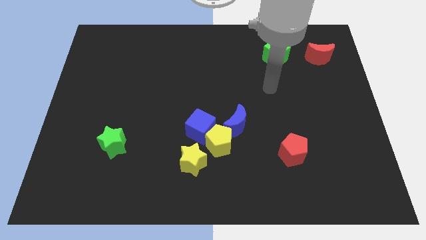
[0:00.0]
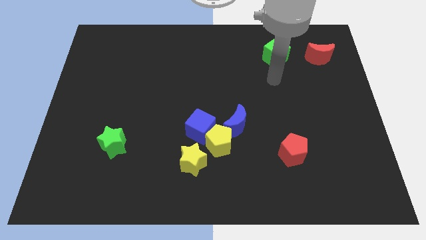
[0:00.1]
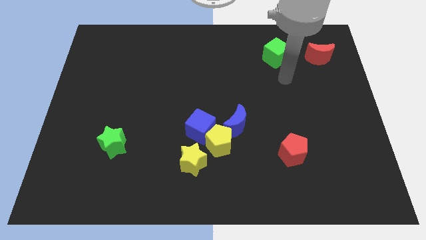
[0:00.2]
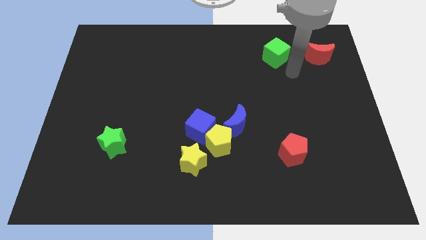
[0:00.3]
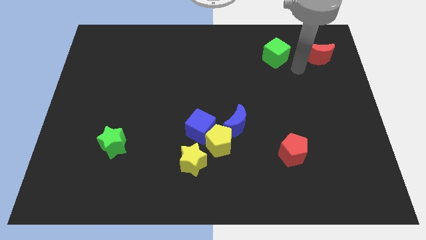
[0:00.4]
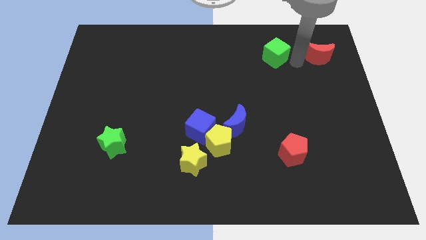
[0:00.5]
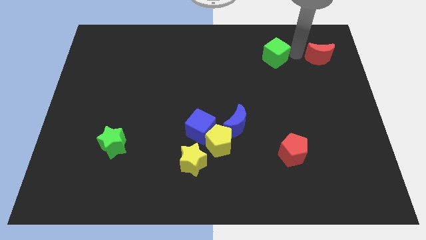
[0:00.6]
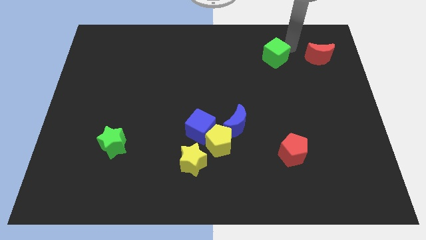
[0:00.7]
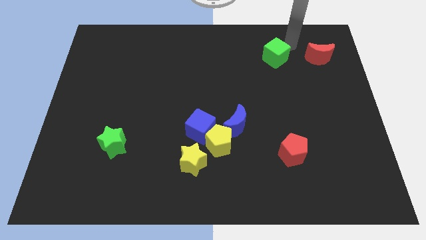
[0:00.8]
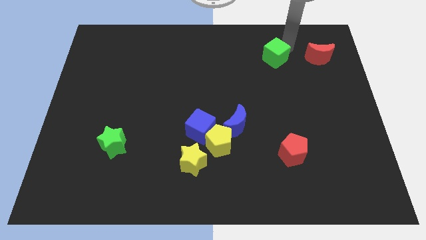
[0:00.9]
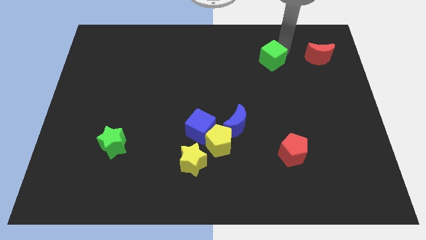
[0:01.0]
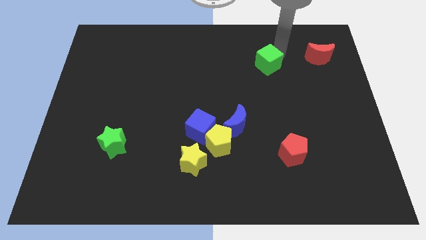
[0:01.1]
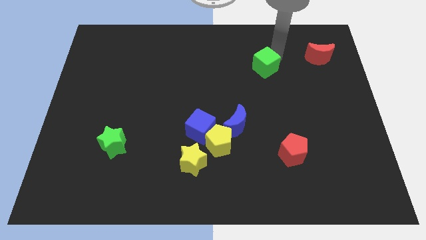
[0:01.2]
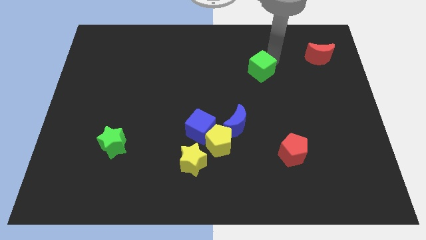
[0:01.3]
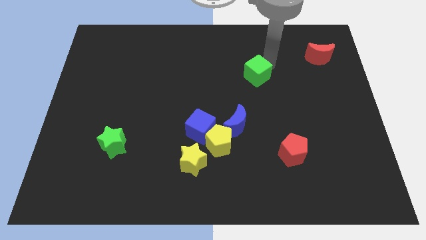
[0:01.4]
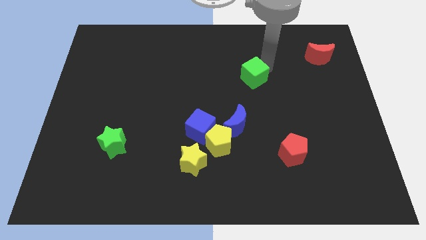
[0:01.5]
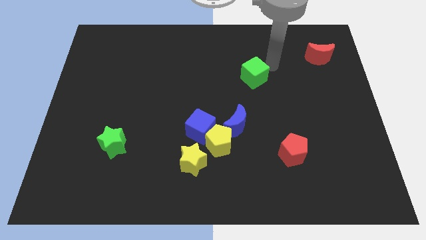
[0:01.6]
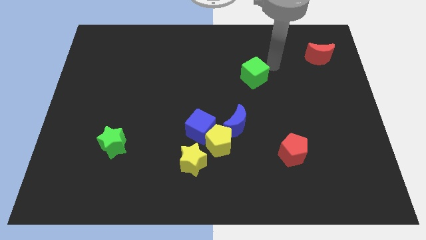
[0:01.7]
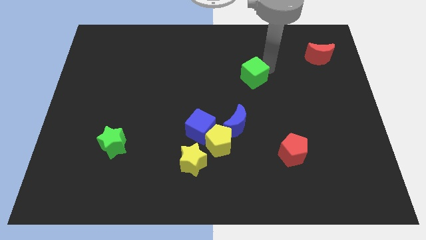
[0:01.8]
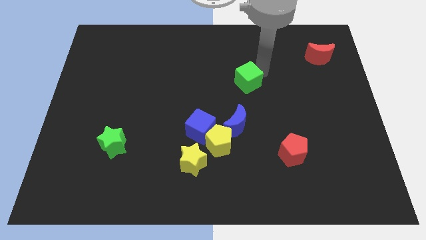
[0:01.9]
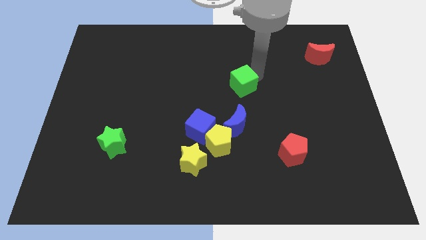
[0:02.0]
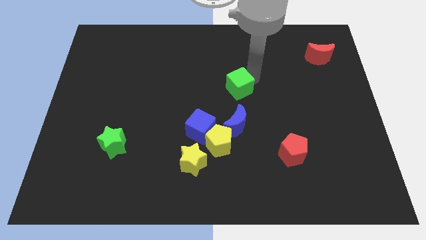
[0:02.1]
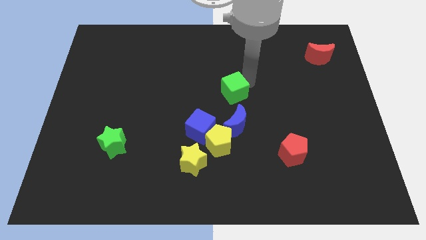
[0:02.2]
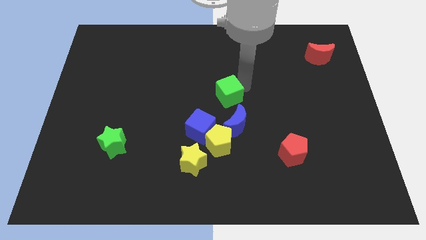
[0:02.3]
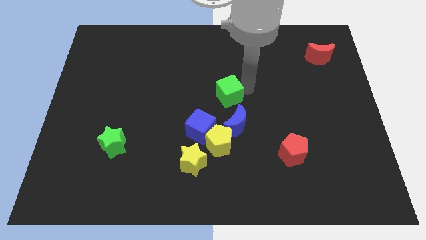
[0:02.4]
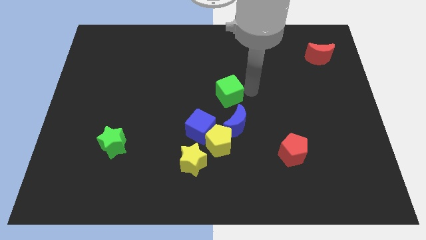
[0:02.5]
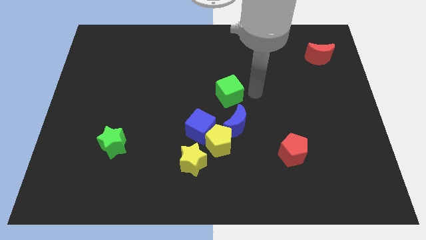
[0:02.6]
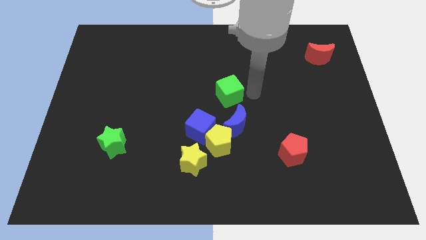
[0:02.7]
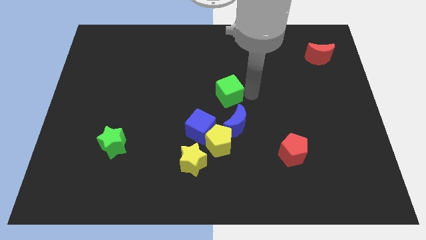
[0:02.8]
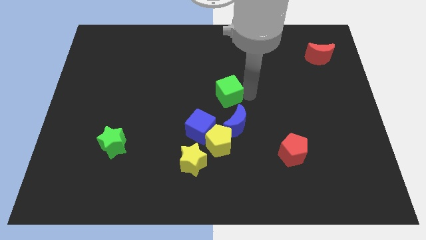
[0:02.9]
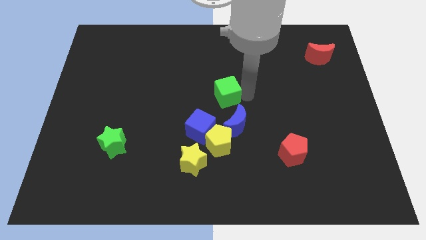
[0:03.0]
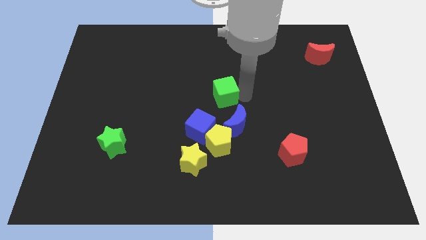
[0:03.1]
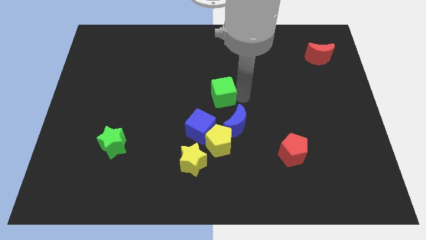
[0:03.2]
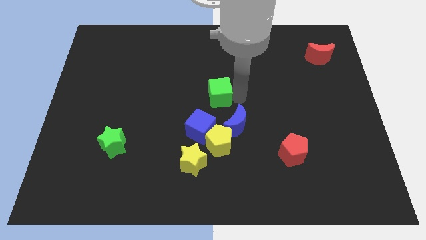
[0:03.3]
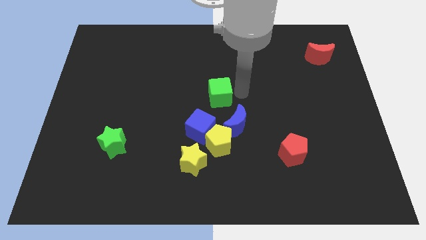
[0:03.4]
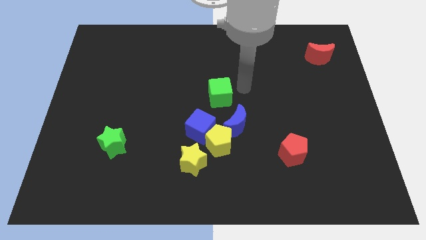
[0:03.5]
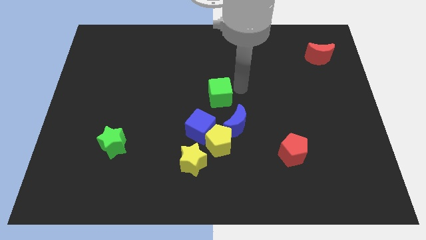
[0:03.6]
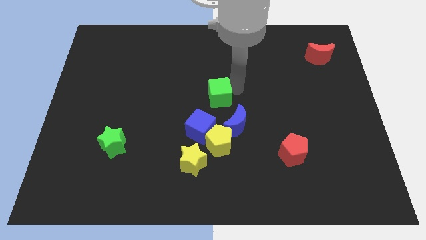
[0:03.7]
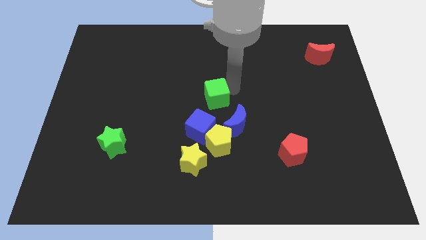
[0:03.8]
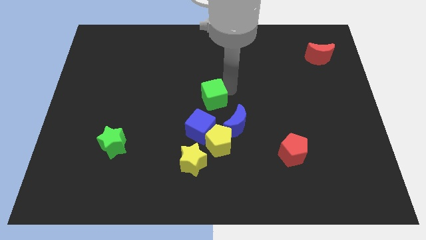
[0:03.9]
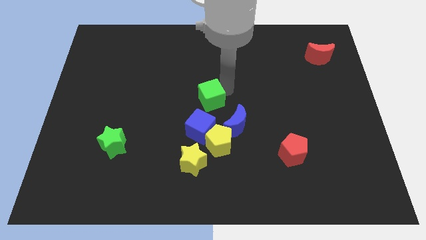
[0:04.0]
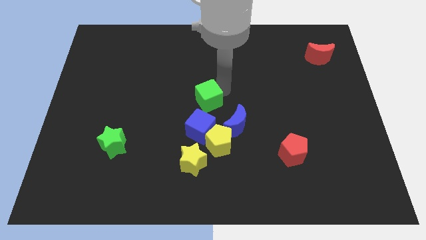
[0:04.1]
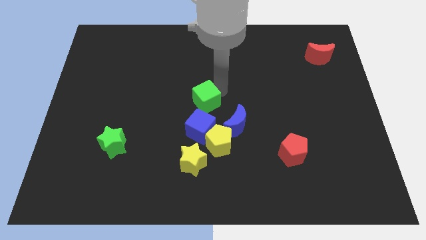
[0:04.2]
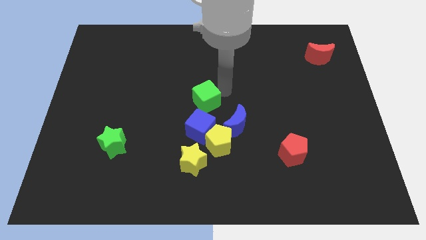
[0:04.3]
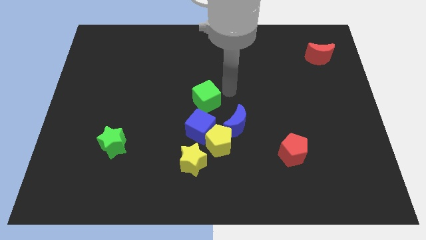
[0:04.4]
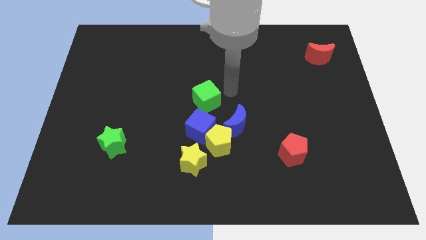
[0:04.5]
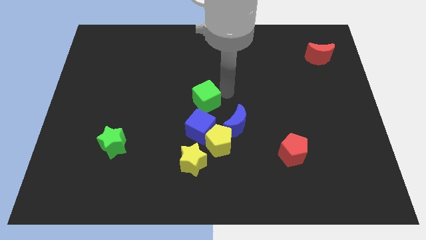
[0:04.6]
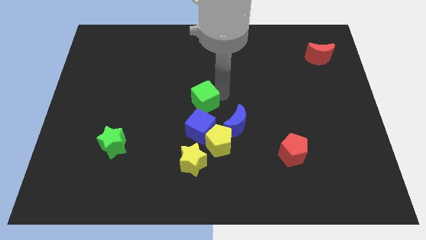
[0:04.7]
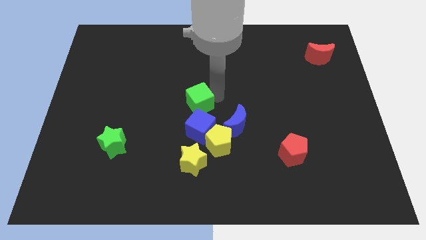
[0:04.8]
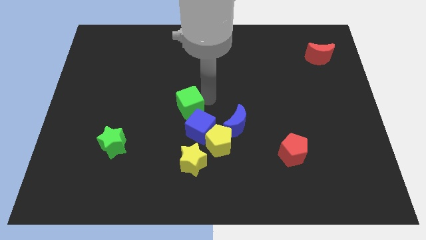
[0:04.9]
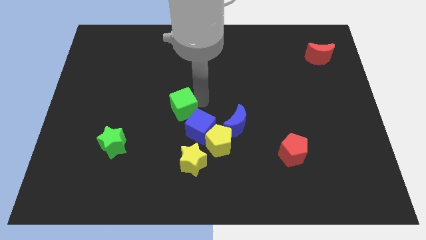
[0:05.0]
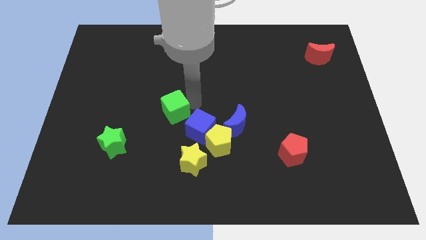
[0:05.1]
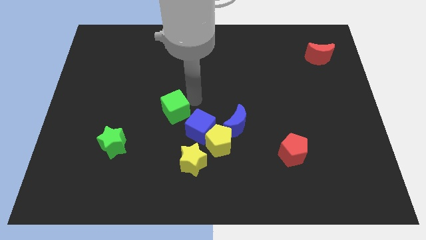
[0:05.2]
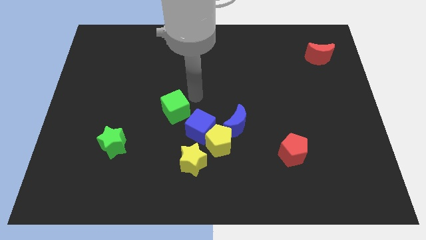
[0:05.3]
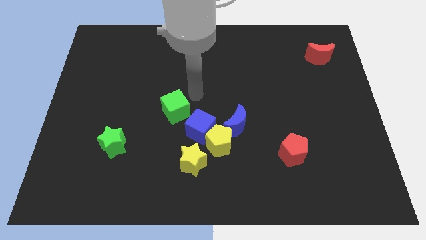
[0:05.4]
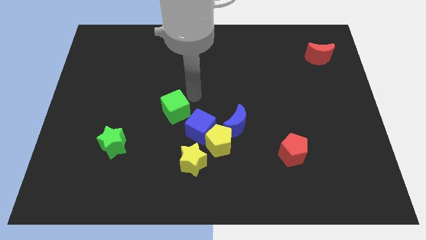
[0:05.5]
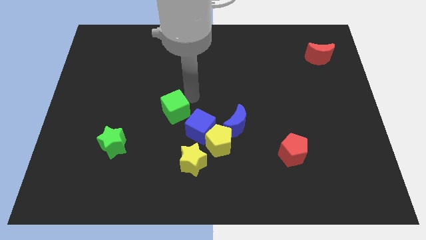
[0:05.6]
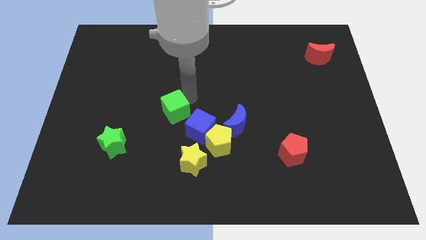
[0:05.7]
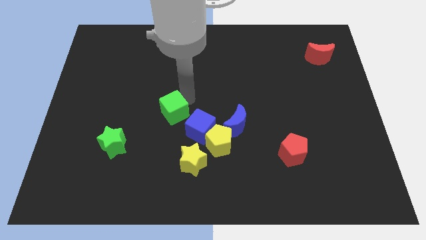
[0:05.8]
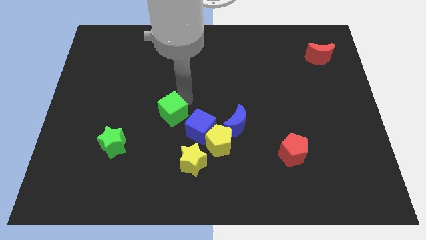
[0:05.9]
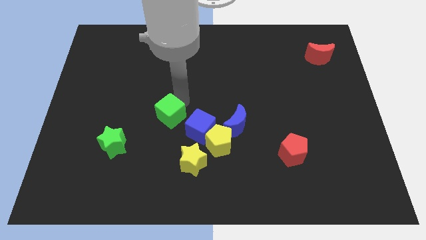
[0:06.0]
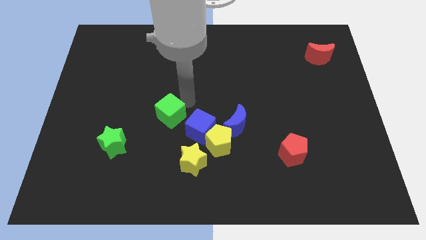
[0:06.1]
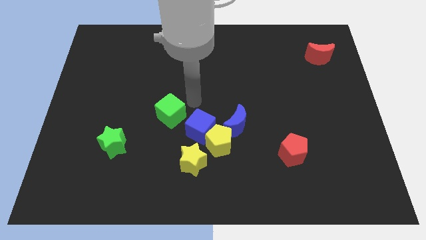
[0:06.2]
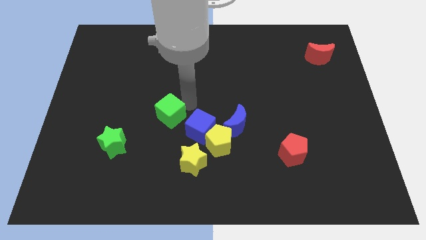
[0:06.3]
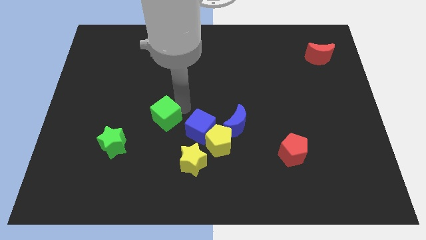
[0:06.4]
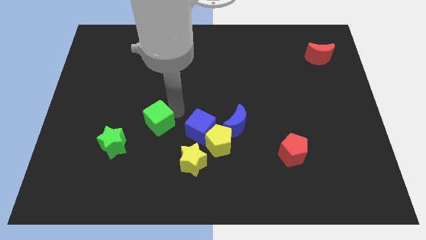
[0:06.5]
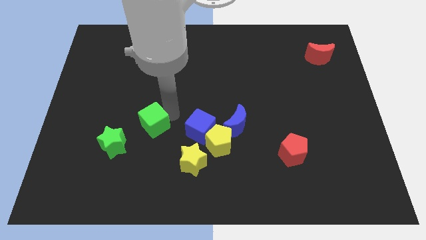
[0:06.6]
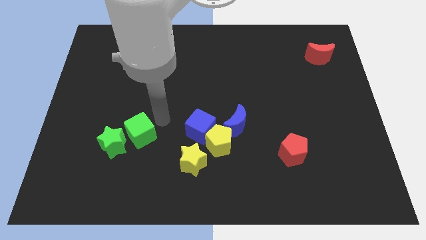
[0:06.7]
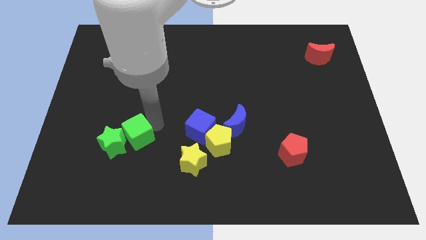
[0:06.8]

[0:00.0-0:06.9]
slide the green cube to the green star
